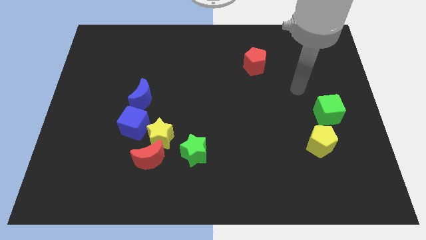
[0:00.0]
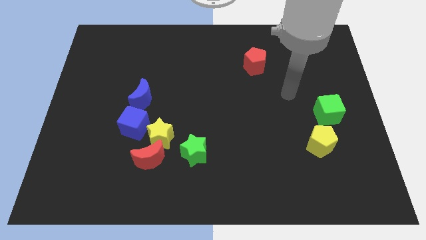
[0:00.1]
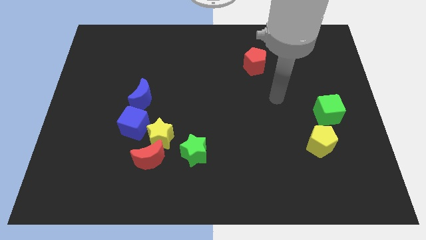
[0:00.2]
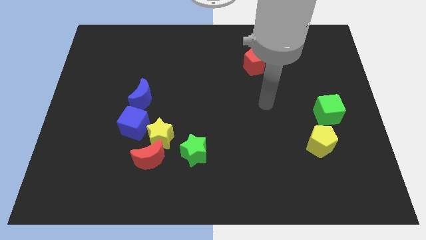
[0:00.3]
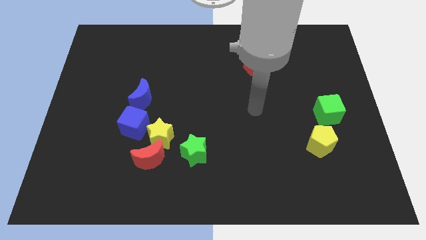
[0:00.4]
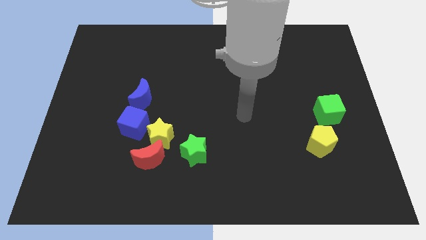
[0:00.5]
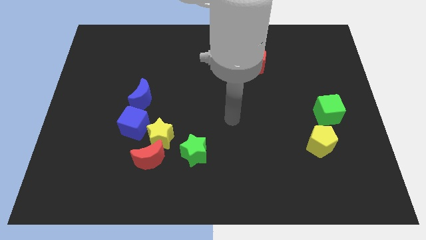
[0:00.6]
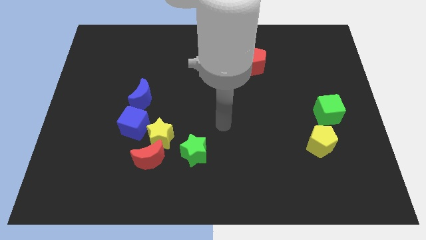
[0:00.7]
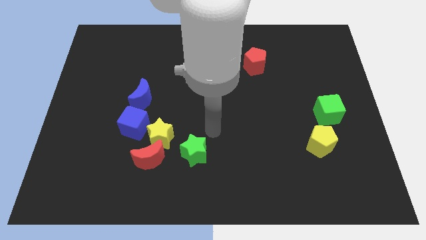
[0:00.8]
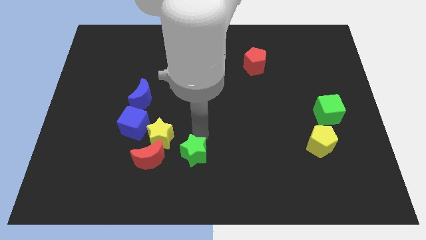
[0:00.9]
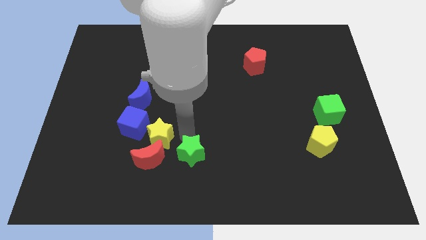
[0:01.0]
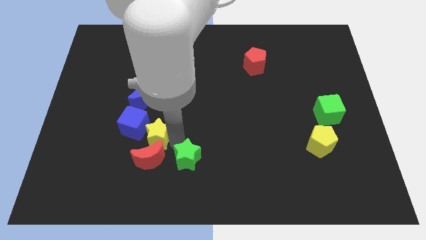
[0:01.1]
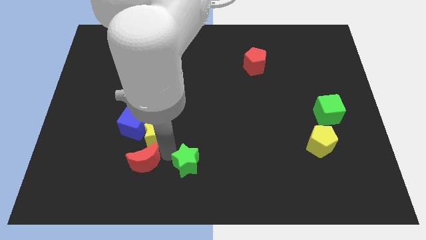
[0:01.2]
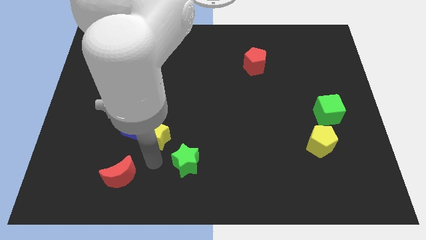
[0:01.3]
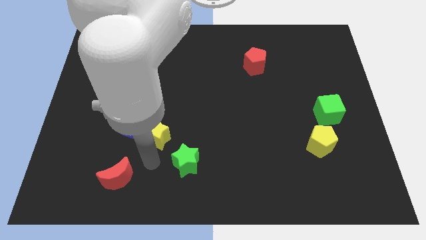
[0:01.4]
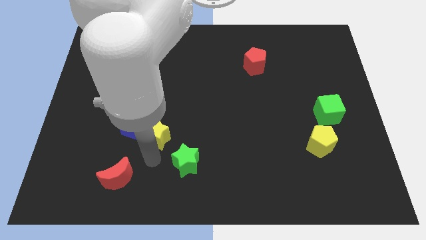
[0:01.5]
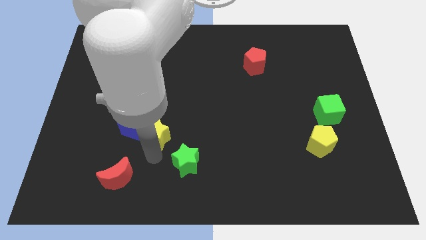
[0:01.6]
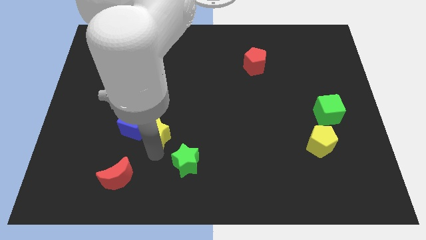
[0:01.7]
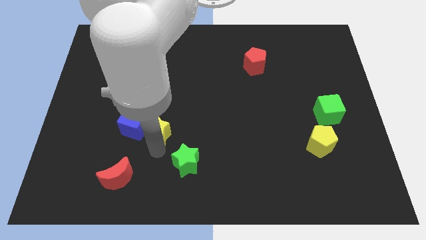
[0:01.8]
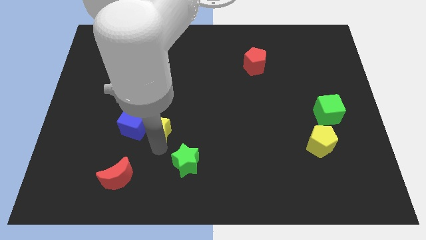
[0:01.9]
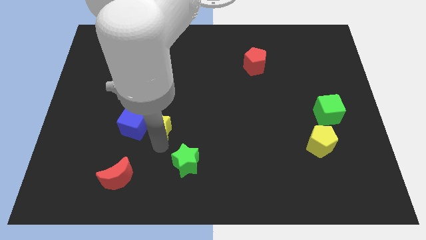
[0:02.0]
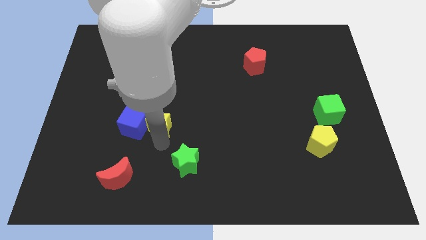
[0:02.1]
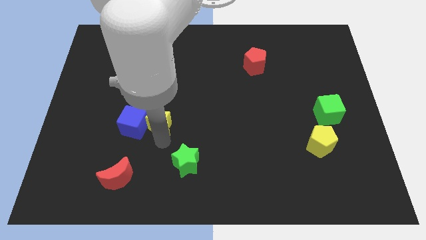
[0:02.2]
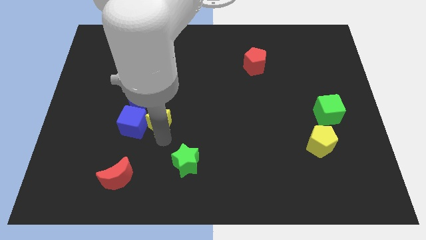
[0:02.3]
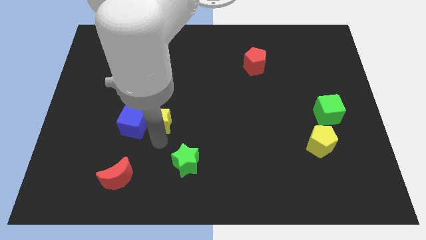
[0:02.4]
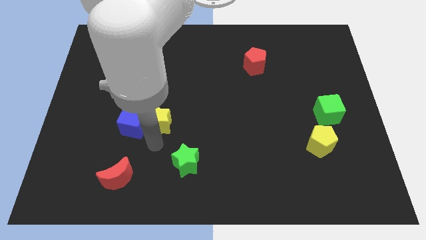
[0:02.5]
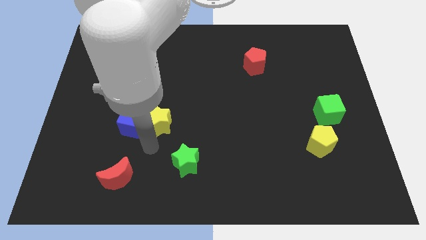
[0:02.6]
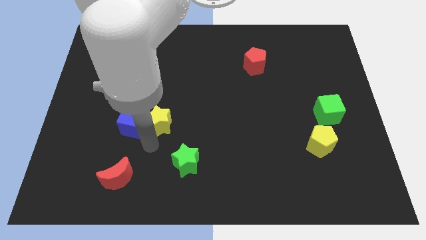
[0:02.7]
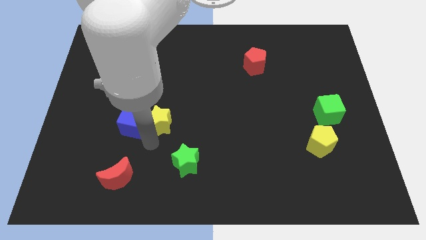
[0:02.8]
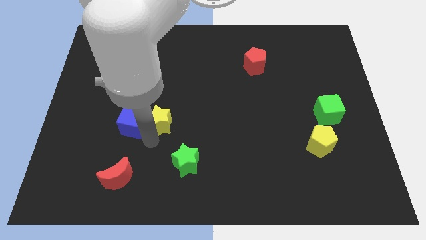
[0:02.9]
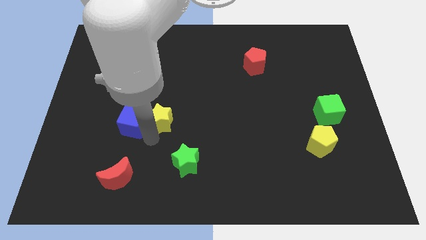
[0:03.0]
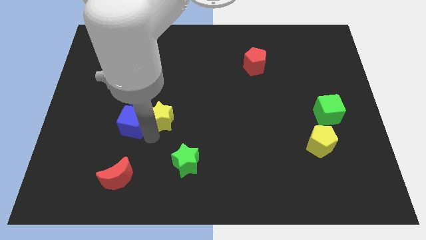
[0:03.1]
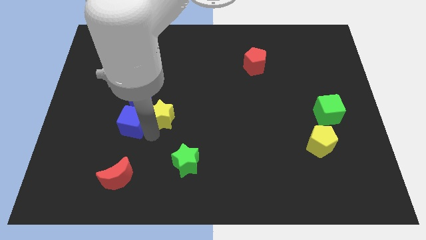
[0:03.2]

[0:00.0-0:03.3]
pull the yellow star apart from the red moon, blue cube, and green star

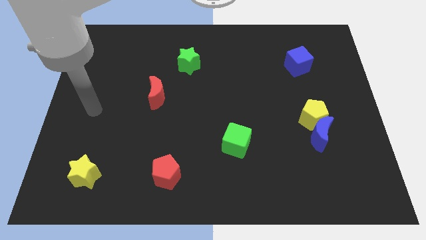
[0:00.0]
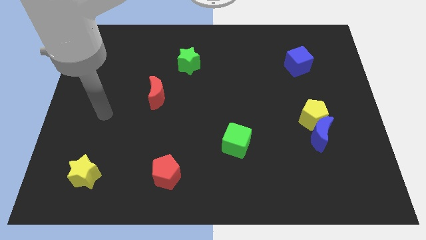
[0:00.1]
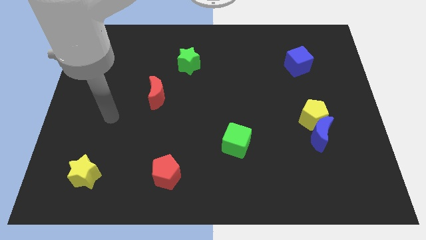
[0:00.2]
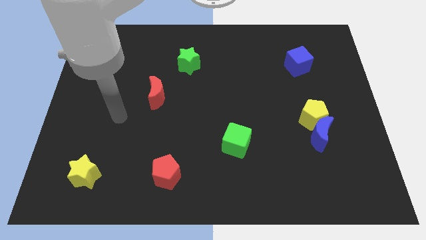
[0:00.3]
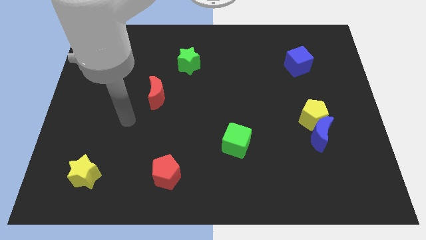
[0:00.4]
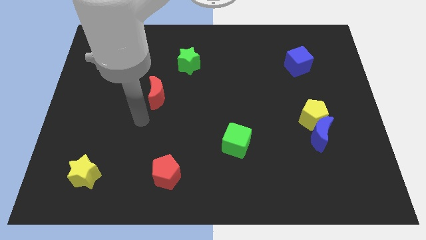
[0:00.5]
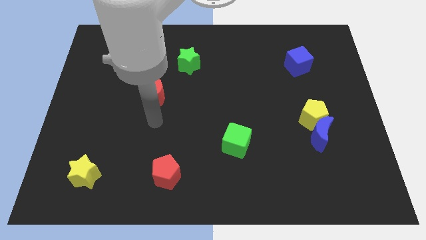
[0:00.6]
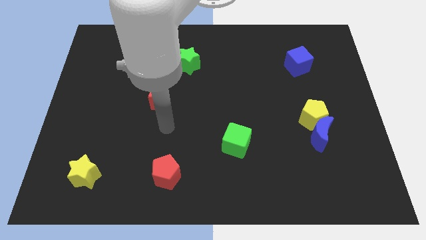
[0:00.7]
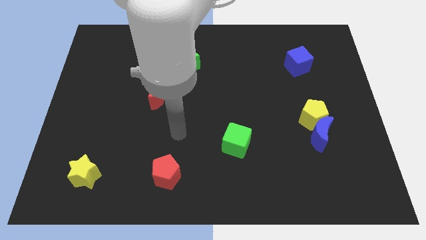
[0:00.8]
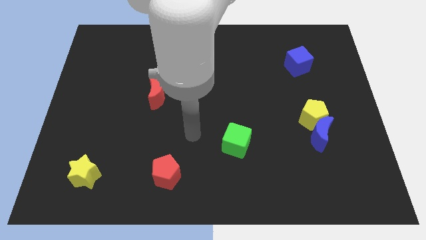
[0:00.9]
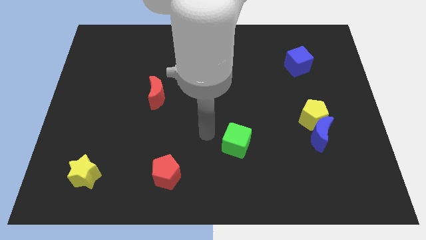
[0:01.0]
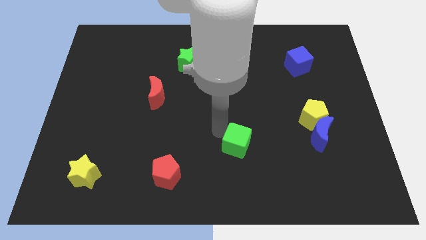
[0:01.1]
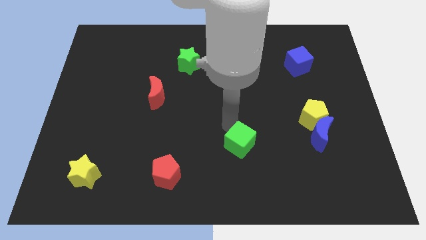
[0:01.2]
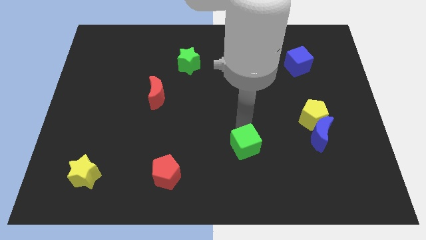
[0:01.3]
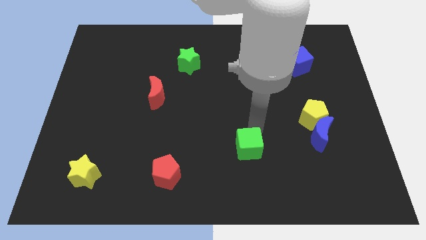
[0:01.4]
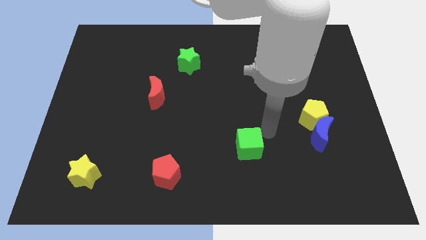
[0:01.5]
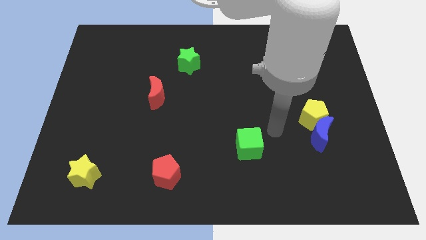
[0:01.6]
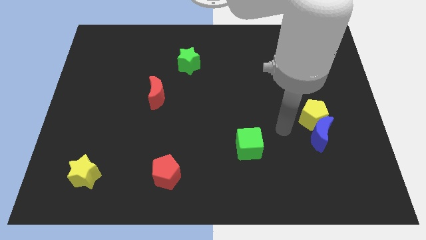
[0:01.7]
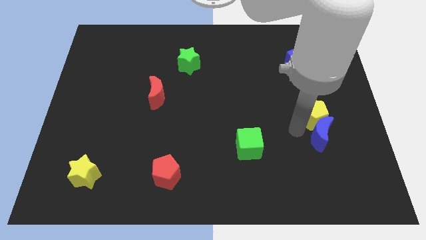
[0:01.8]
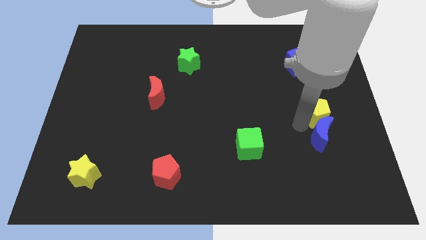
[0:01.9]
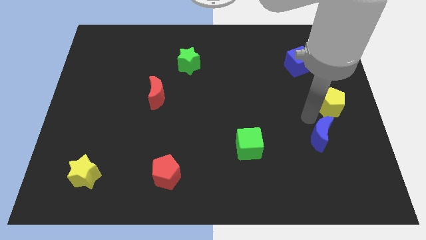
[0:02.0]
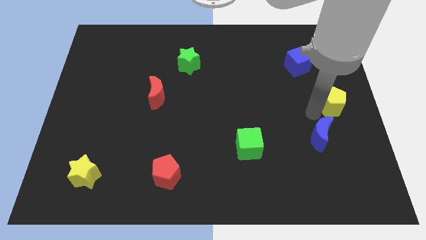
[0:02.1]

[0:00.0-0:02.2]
pull the blue moon apart from the yellow pentagon

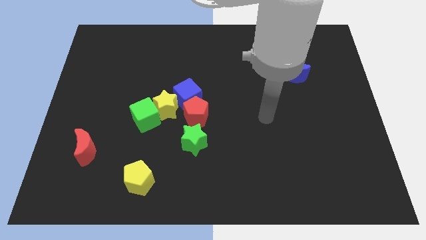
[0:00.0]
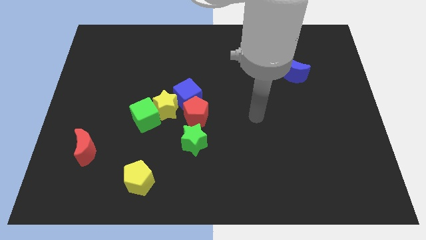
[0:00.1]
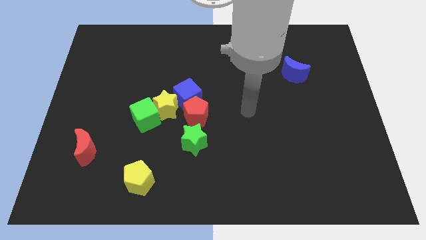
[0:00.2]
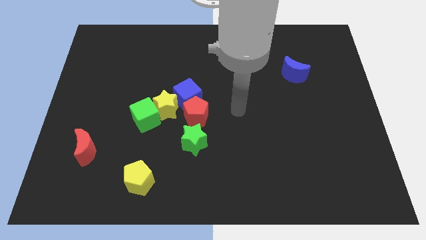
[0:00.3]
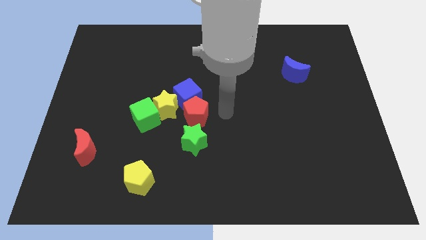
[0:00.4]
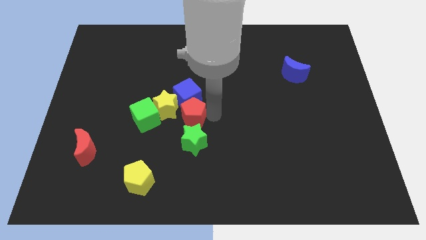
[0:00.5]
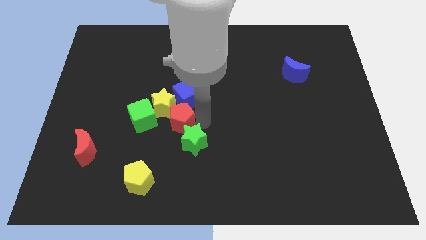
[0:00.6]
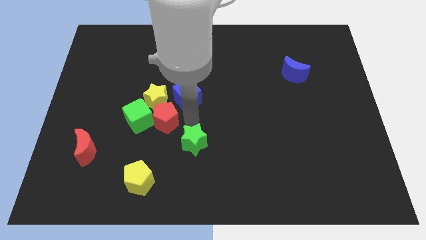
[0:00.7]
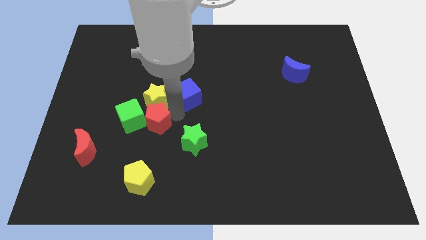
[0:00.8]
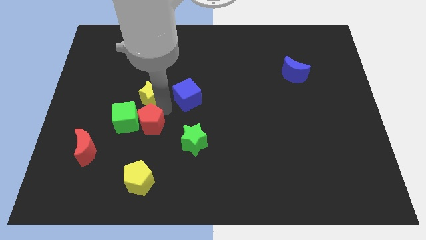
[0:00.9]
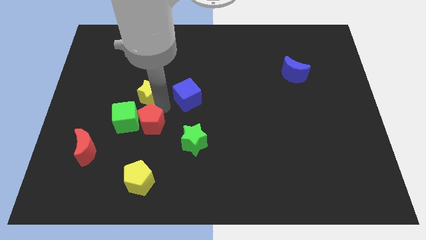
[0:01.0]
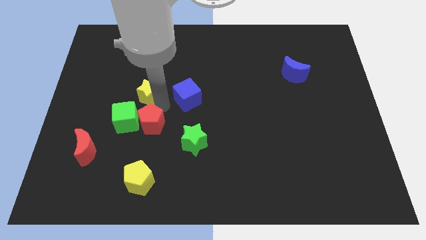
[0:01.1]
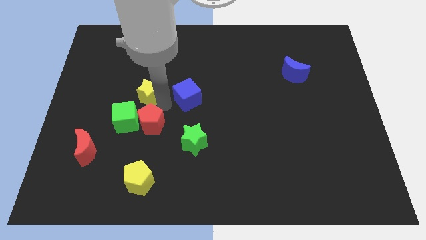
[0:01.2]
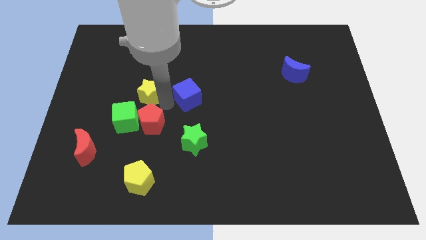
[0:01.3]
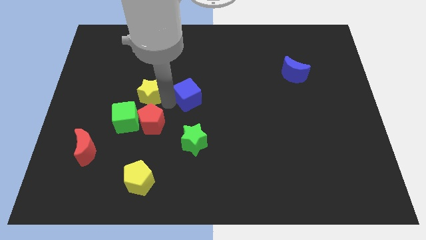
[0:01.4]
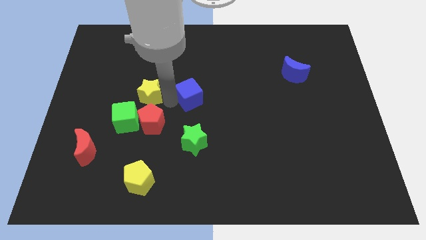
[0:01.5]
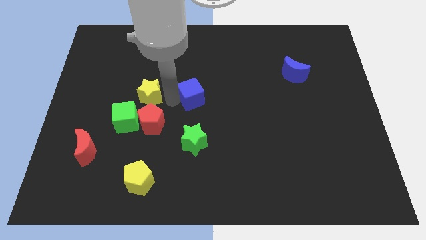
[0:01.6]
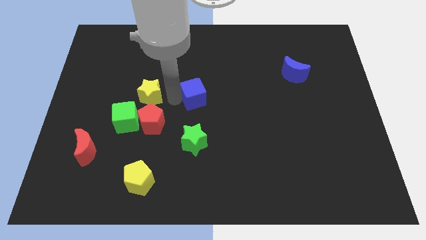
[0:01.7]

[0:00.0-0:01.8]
move the blue cube away from the red pentagon and yellow star

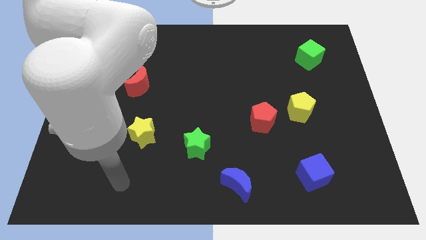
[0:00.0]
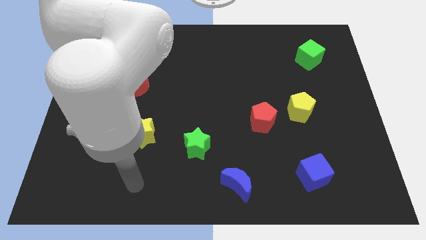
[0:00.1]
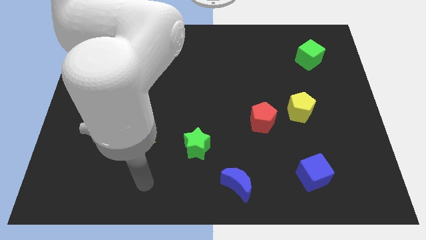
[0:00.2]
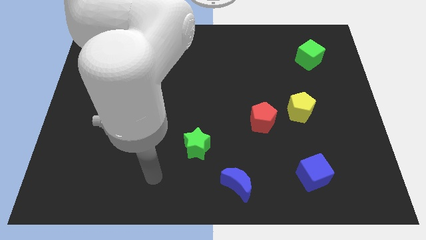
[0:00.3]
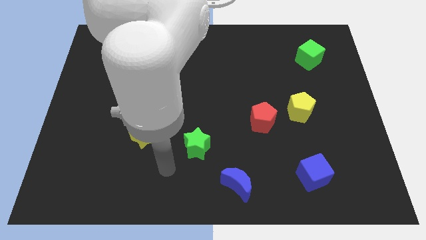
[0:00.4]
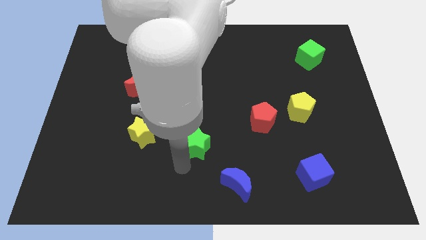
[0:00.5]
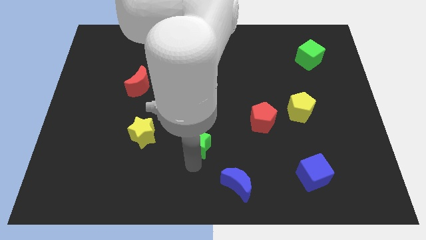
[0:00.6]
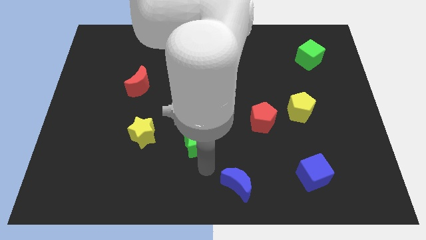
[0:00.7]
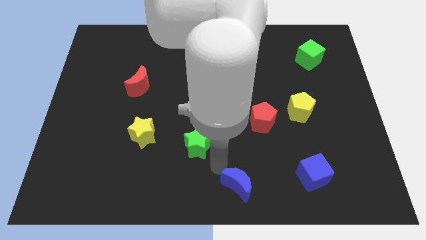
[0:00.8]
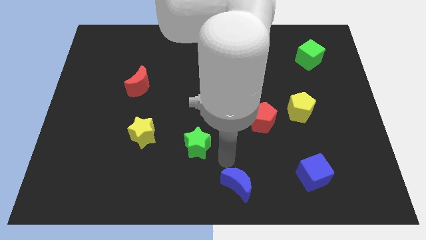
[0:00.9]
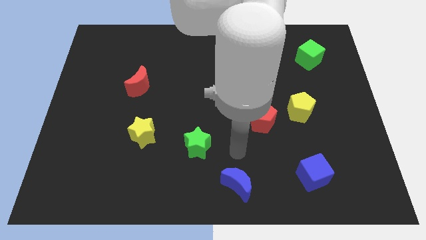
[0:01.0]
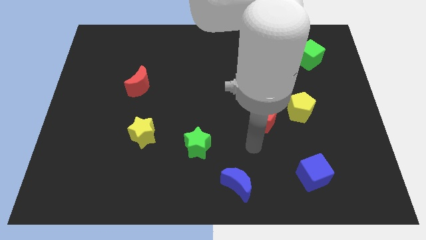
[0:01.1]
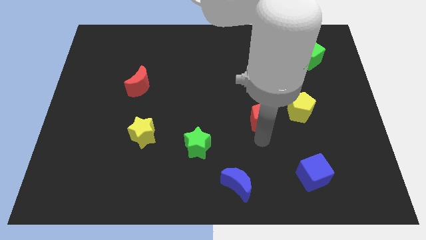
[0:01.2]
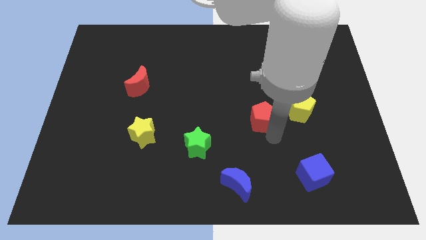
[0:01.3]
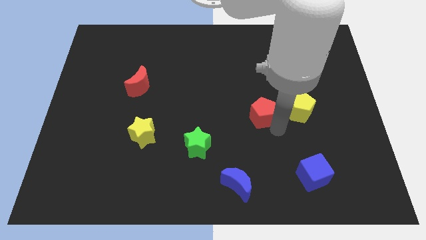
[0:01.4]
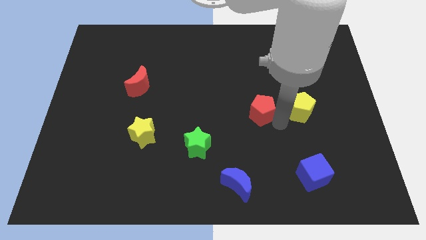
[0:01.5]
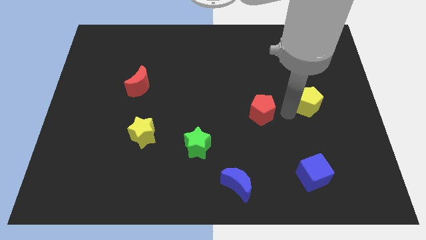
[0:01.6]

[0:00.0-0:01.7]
move the red pentagon away from the yellow pentagon

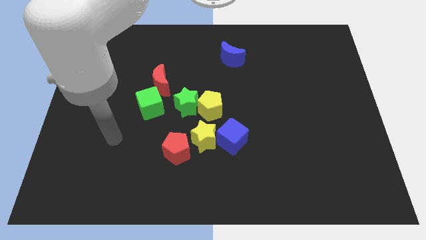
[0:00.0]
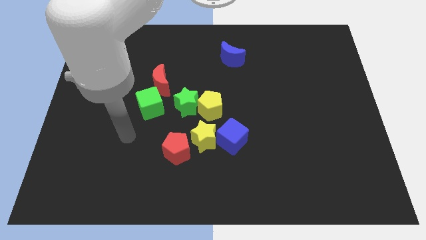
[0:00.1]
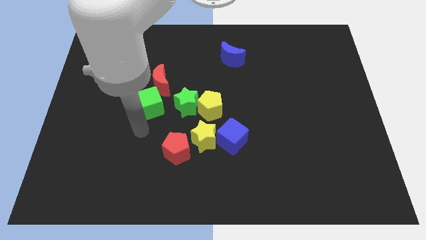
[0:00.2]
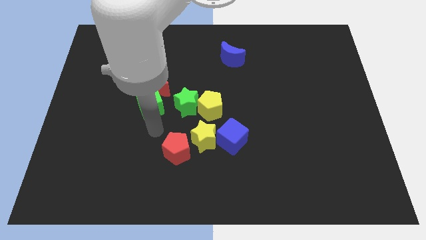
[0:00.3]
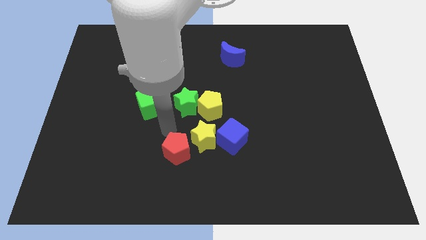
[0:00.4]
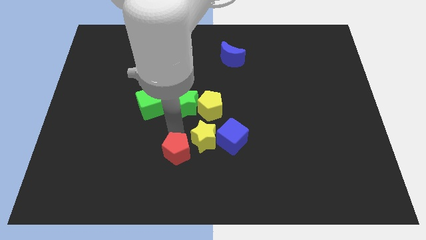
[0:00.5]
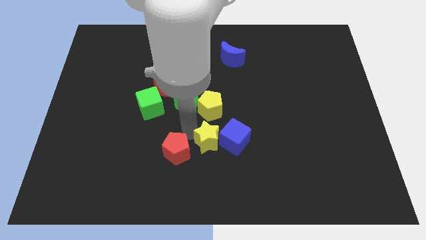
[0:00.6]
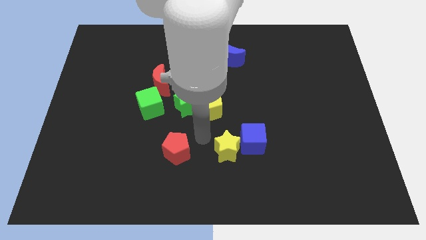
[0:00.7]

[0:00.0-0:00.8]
pull the red pentagon apart from the yellow star
